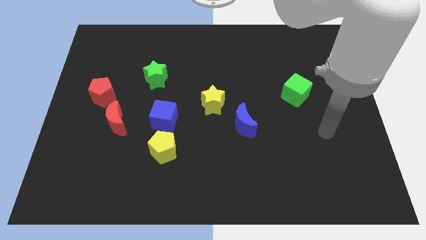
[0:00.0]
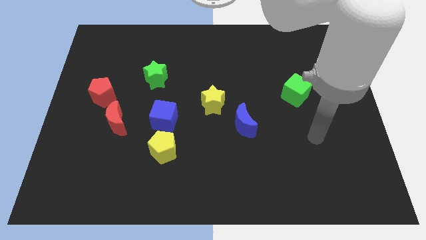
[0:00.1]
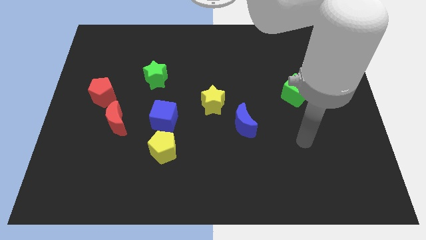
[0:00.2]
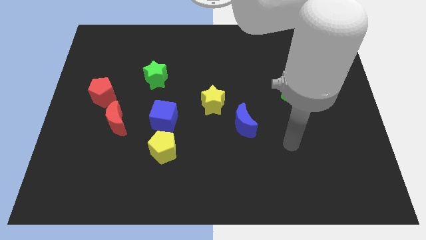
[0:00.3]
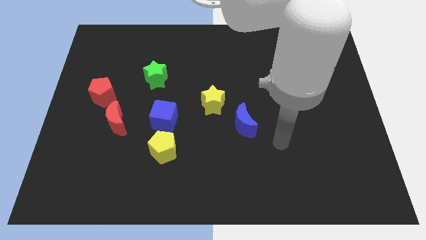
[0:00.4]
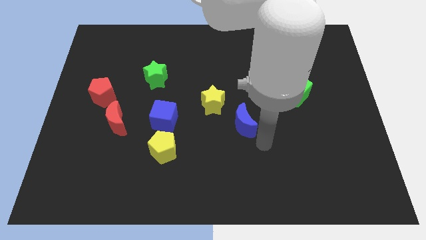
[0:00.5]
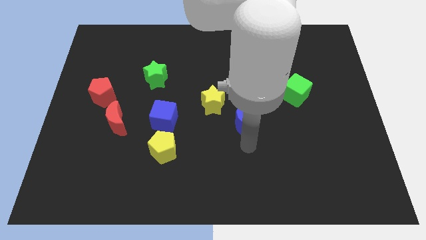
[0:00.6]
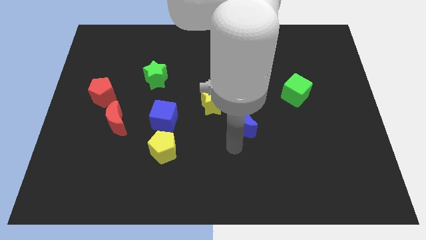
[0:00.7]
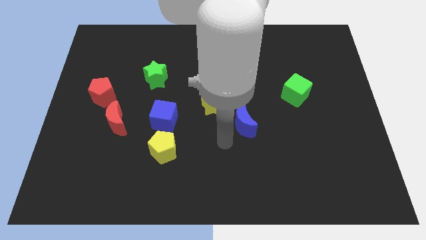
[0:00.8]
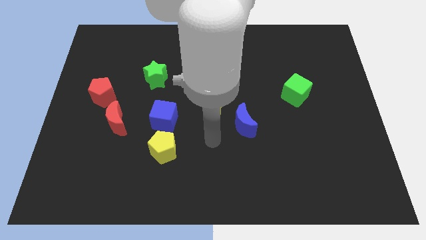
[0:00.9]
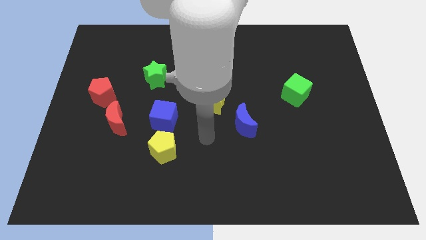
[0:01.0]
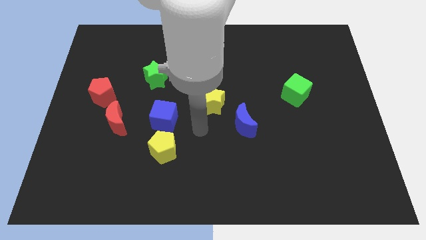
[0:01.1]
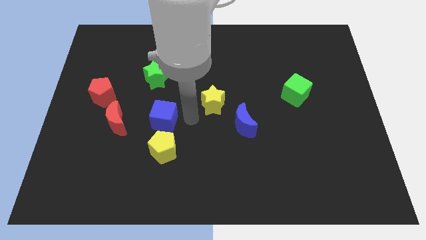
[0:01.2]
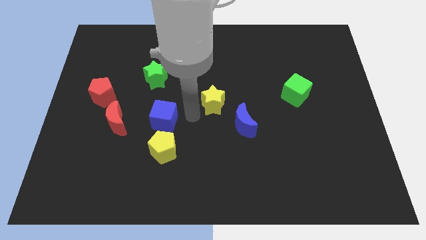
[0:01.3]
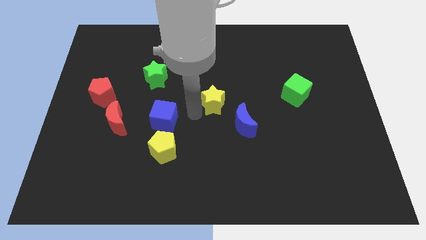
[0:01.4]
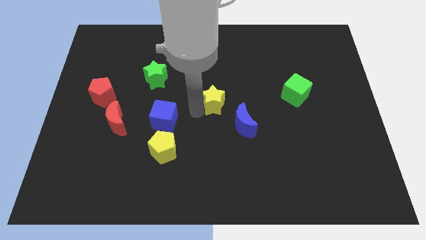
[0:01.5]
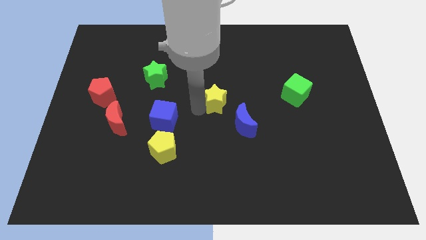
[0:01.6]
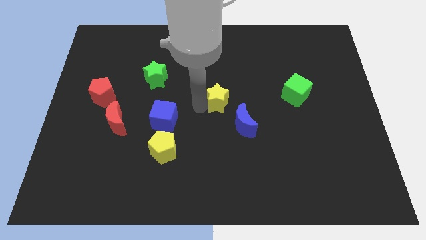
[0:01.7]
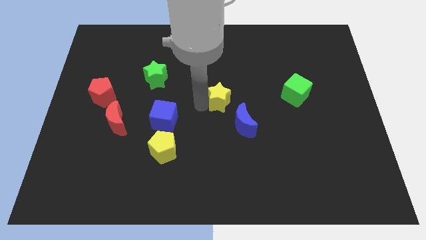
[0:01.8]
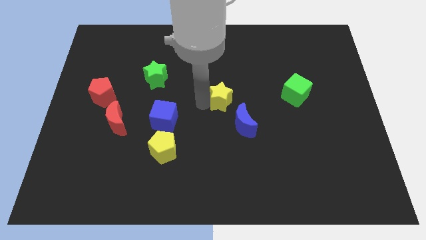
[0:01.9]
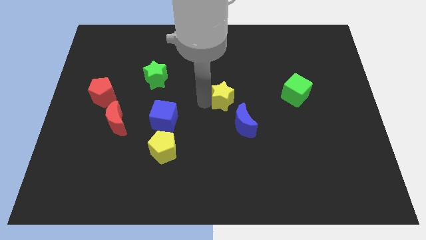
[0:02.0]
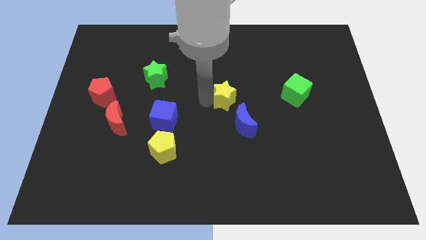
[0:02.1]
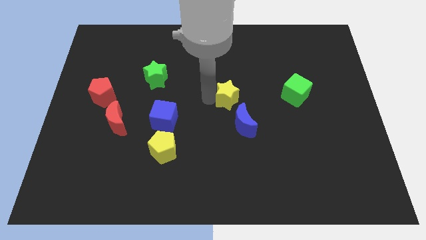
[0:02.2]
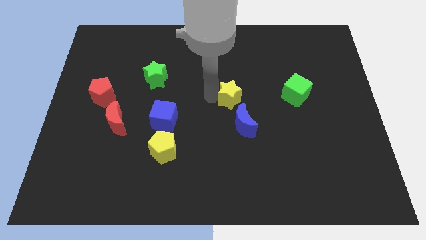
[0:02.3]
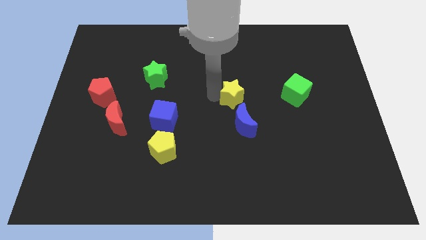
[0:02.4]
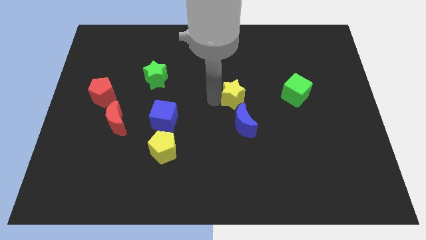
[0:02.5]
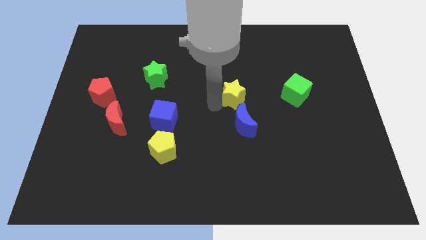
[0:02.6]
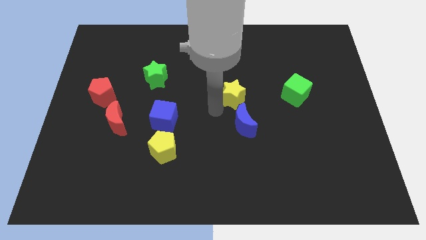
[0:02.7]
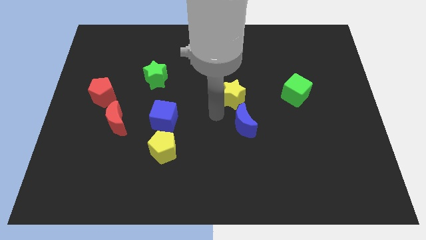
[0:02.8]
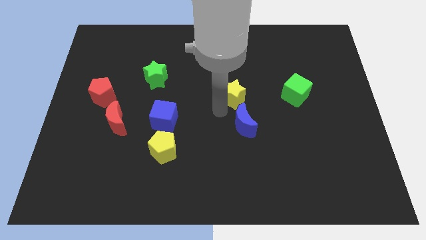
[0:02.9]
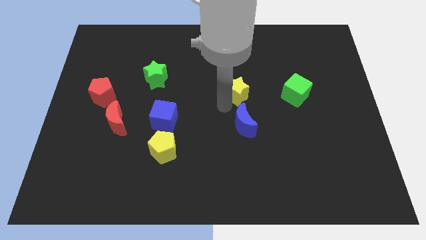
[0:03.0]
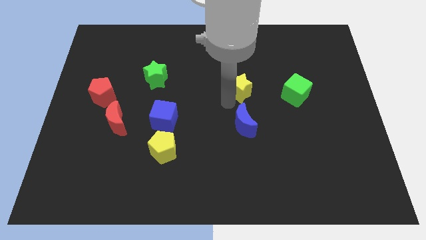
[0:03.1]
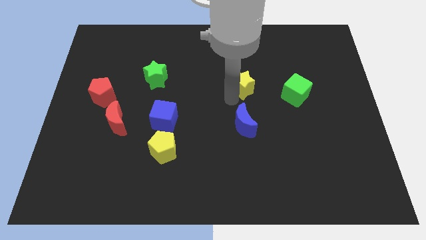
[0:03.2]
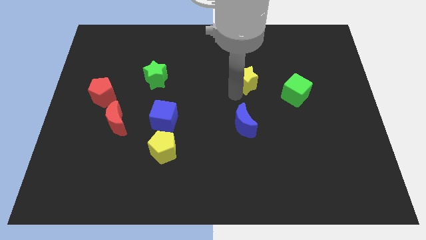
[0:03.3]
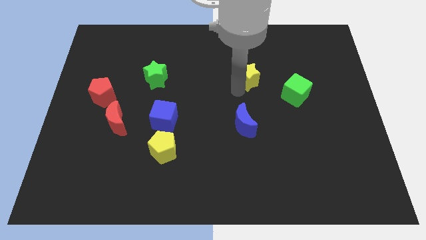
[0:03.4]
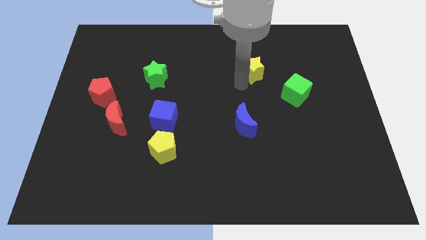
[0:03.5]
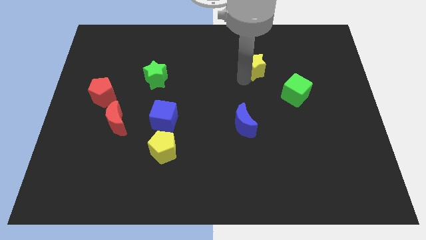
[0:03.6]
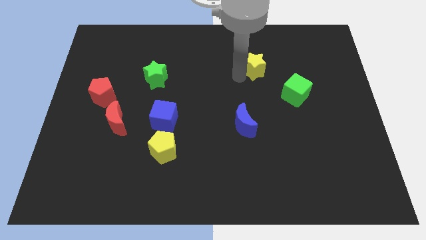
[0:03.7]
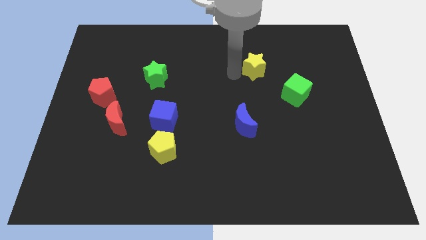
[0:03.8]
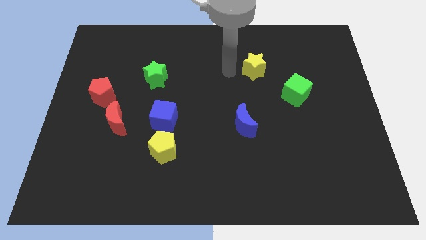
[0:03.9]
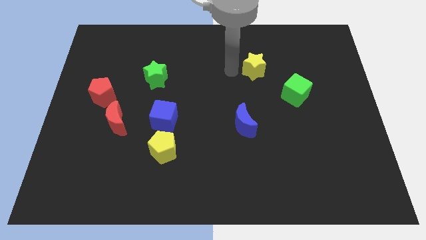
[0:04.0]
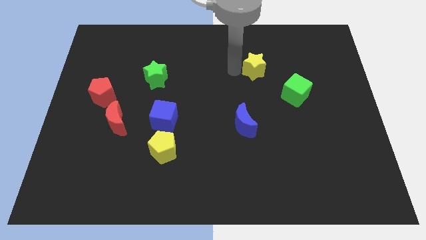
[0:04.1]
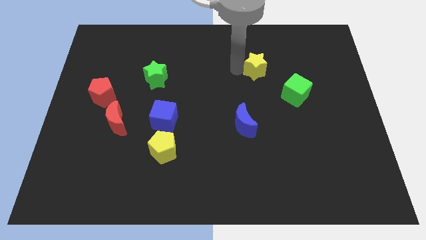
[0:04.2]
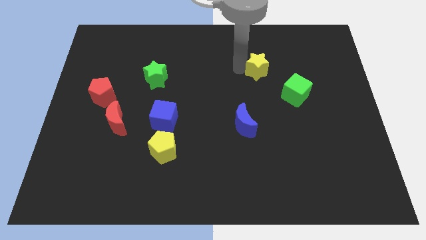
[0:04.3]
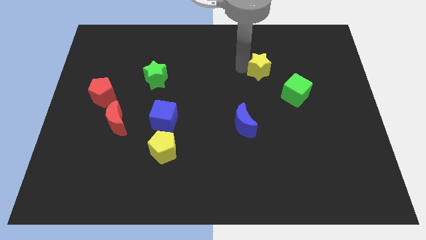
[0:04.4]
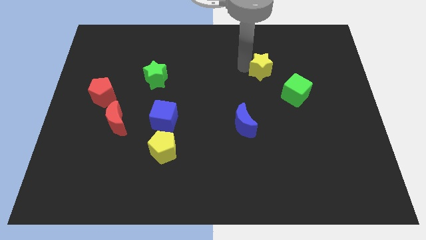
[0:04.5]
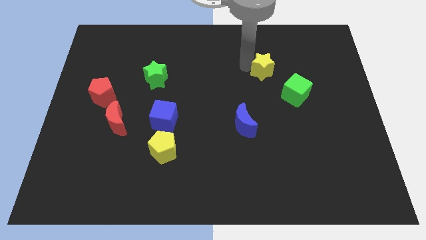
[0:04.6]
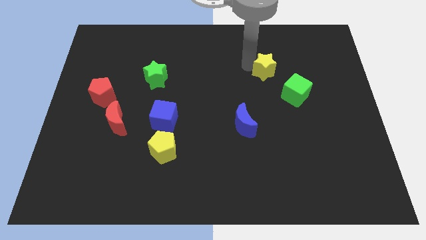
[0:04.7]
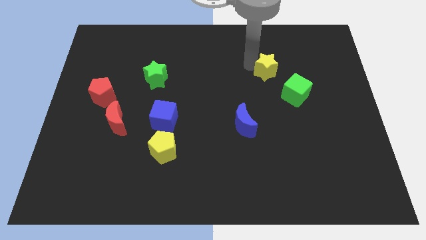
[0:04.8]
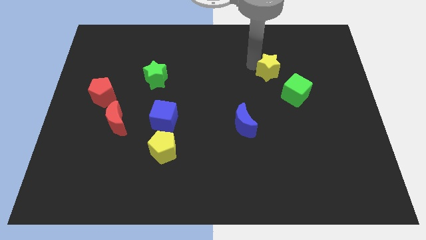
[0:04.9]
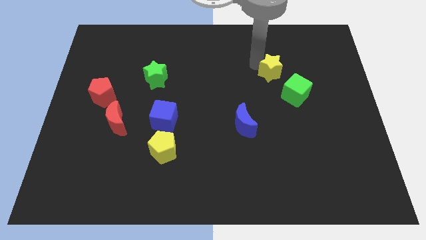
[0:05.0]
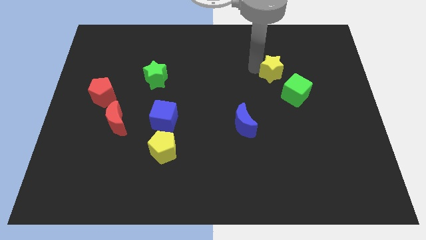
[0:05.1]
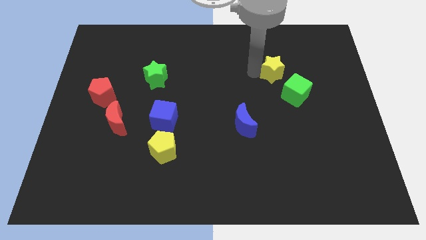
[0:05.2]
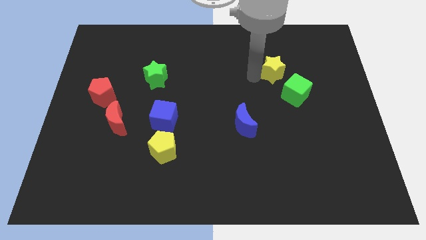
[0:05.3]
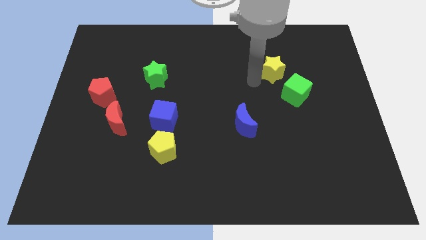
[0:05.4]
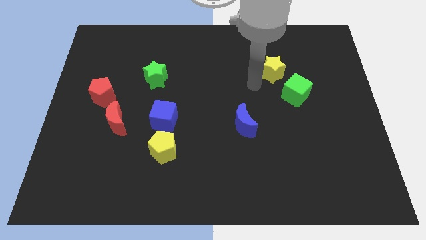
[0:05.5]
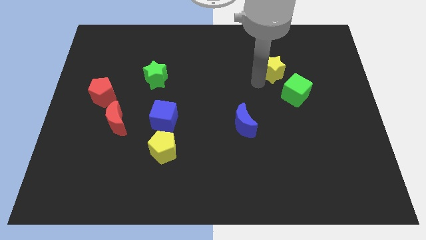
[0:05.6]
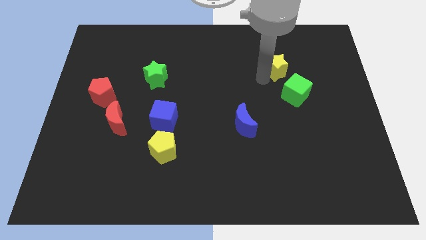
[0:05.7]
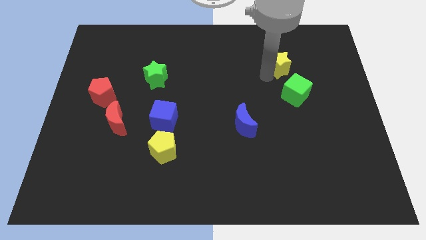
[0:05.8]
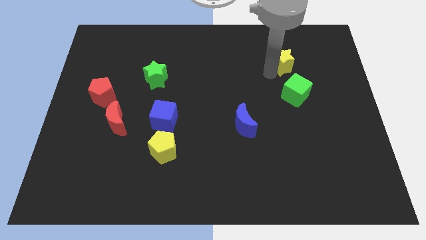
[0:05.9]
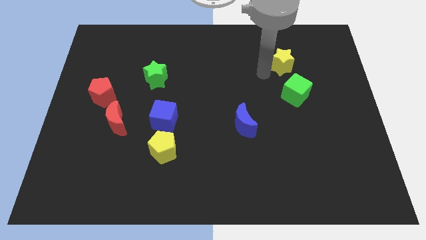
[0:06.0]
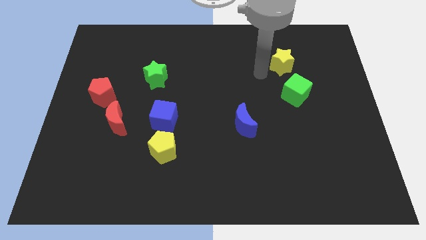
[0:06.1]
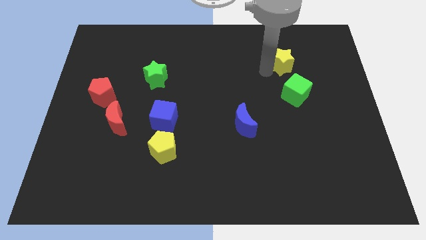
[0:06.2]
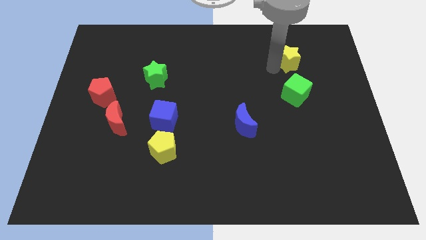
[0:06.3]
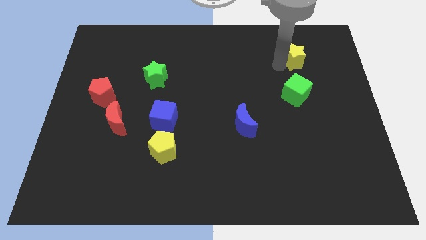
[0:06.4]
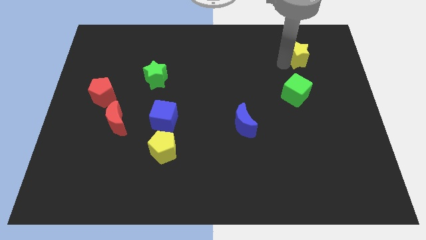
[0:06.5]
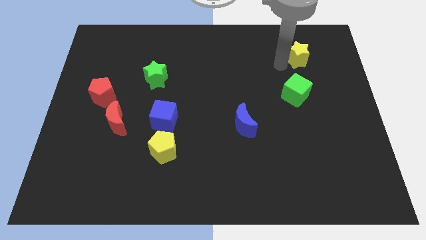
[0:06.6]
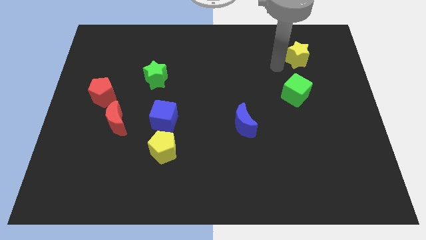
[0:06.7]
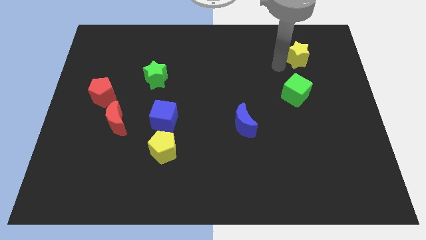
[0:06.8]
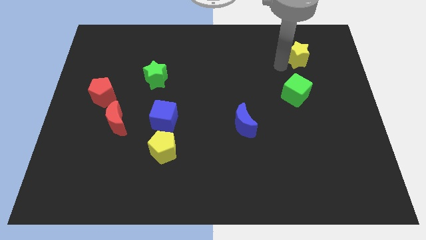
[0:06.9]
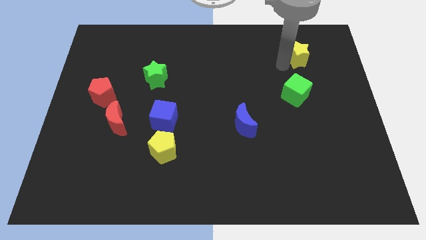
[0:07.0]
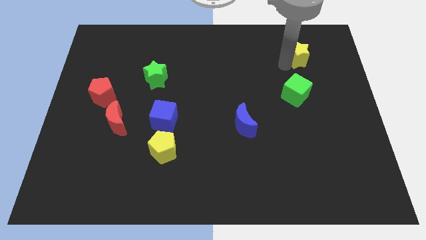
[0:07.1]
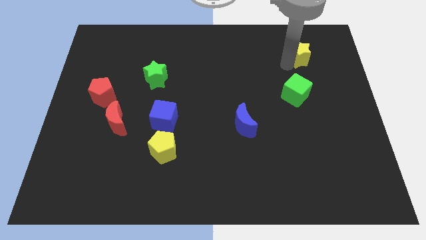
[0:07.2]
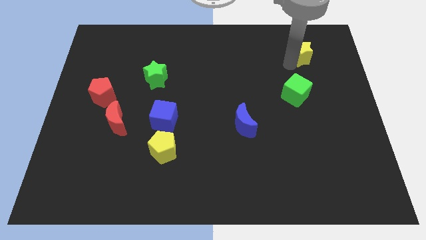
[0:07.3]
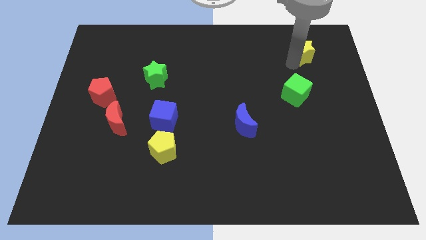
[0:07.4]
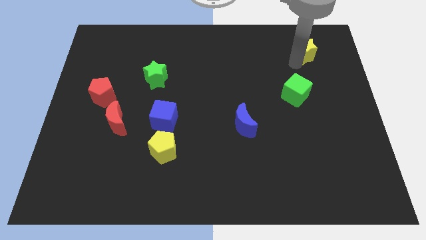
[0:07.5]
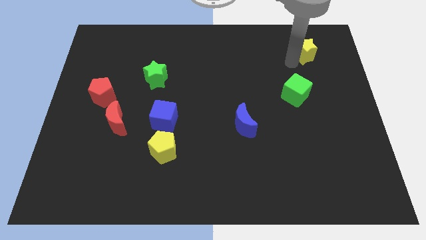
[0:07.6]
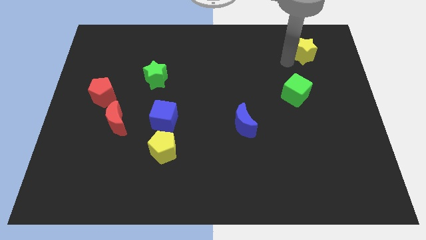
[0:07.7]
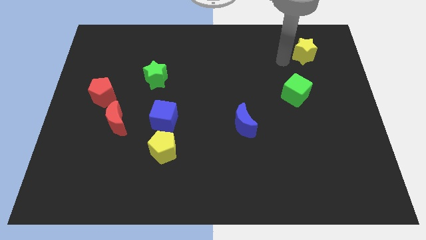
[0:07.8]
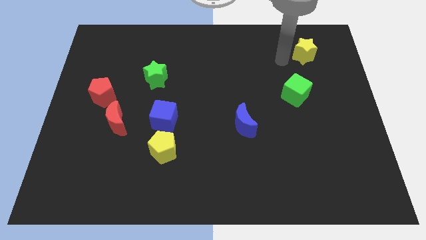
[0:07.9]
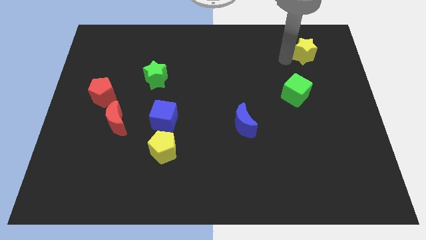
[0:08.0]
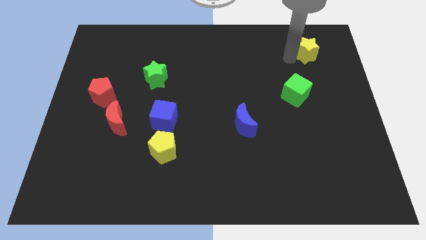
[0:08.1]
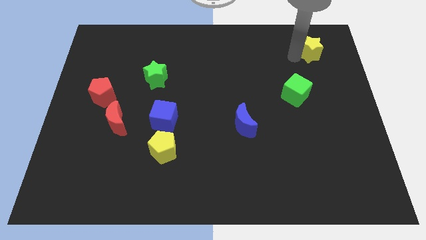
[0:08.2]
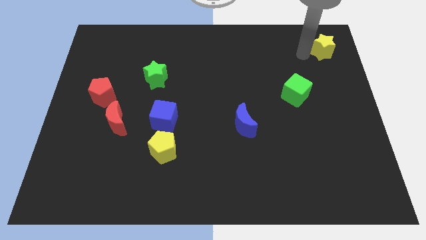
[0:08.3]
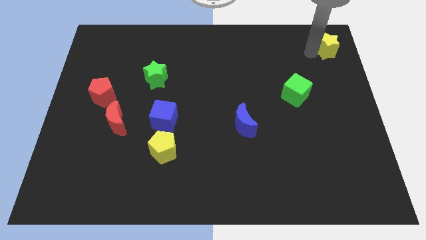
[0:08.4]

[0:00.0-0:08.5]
slide the yellow star to the top right of the board
